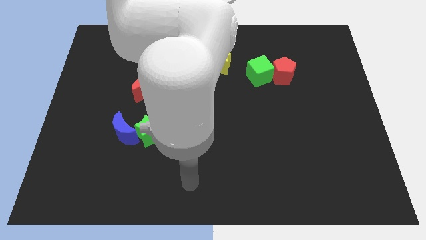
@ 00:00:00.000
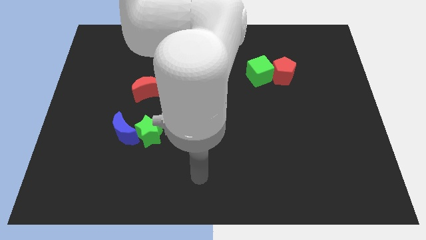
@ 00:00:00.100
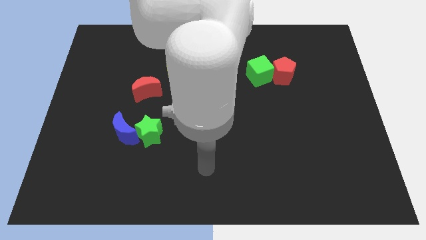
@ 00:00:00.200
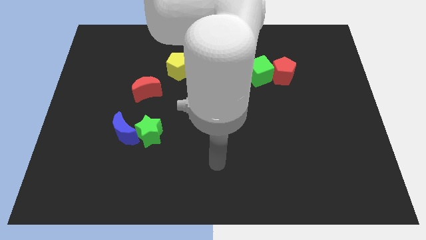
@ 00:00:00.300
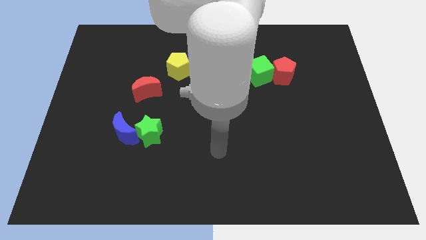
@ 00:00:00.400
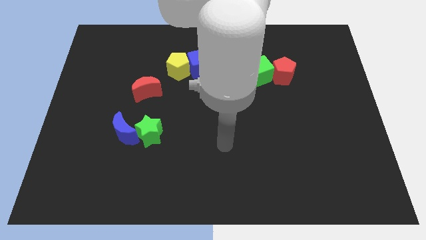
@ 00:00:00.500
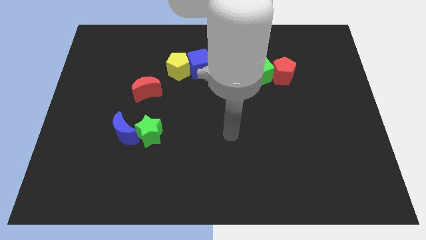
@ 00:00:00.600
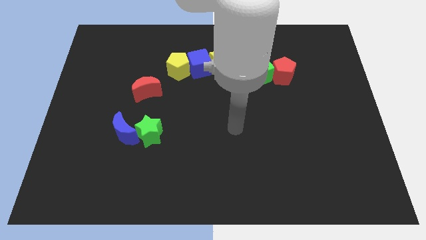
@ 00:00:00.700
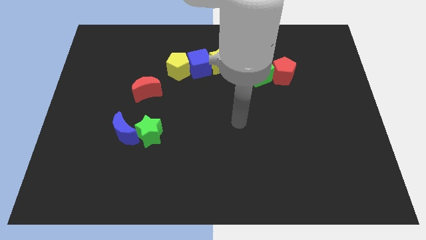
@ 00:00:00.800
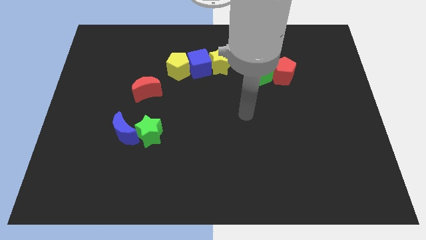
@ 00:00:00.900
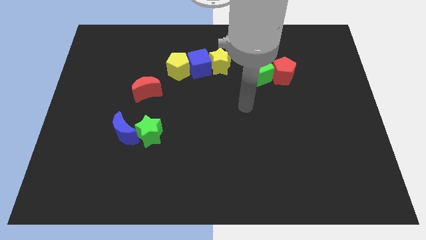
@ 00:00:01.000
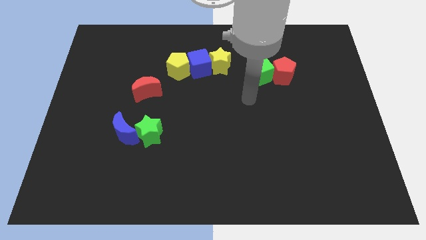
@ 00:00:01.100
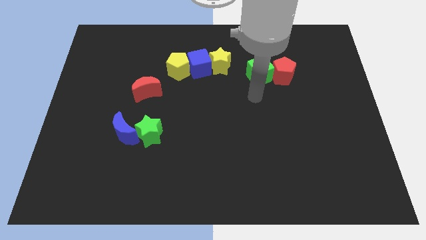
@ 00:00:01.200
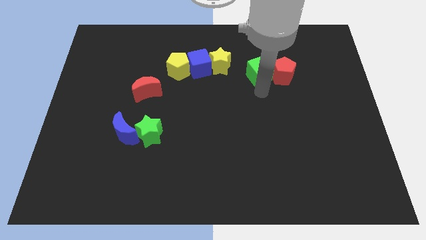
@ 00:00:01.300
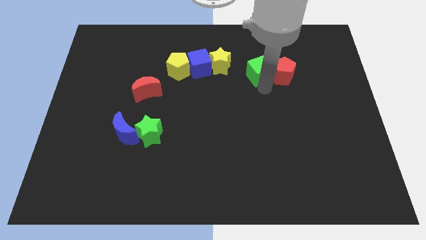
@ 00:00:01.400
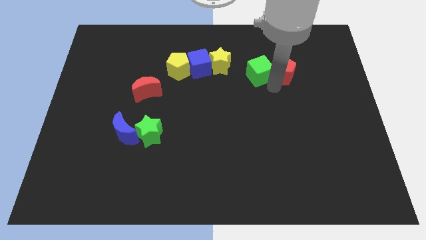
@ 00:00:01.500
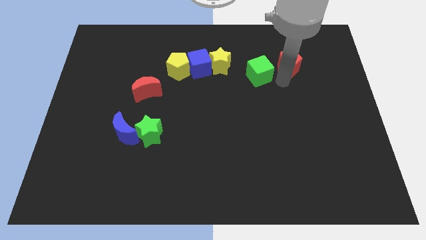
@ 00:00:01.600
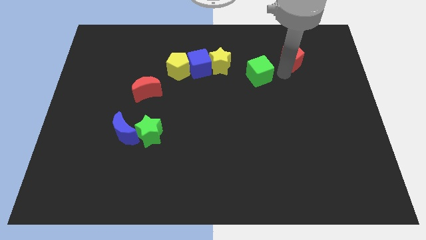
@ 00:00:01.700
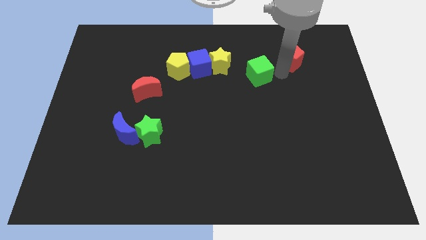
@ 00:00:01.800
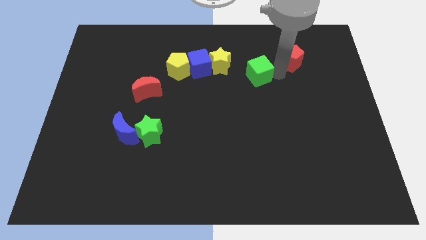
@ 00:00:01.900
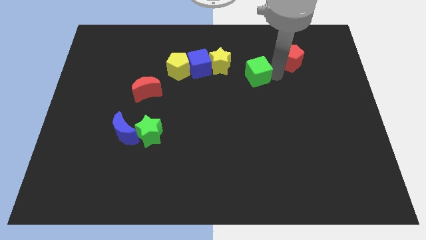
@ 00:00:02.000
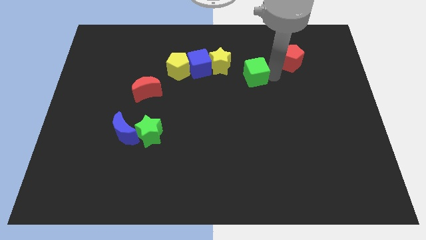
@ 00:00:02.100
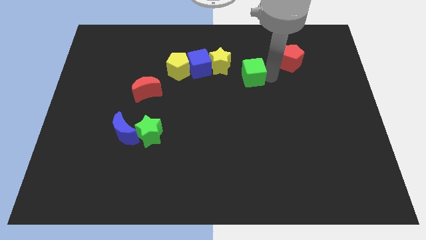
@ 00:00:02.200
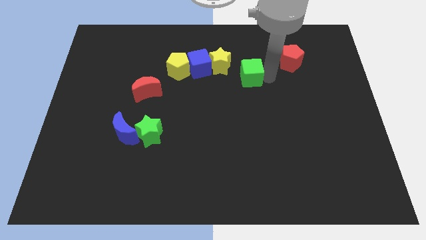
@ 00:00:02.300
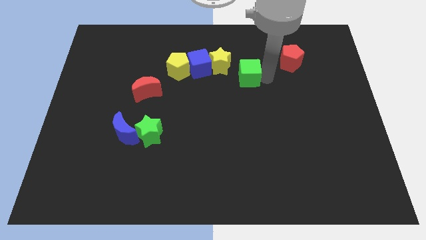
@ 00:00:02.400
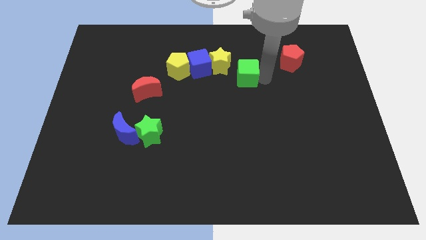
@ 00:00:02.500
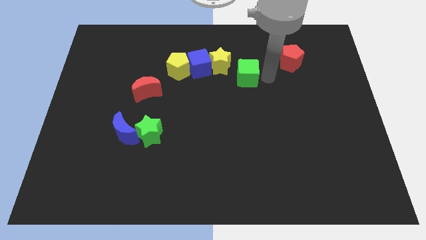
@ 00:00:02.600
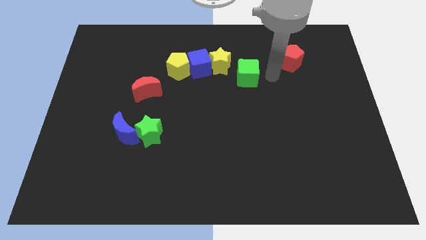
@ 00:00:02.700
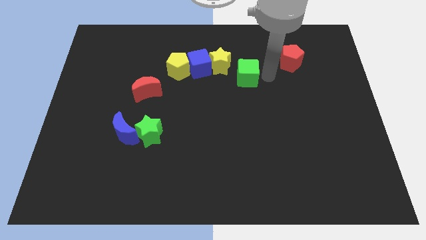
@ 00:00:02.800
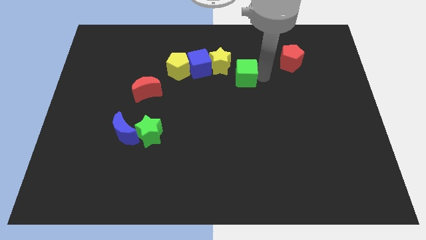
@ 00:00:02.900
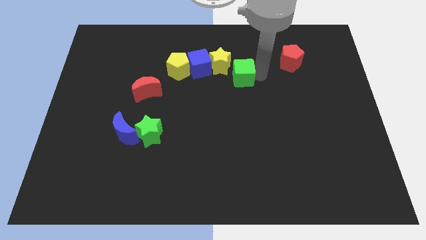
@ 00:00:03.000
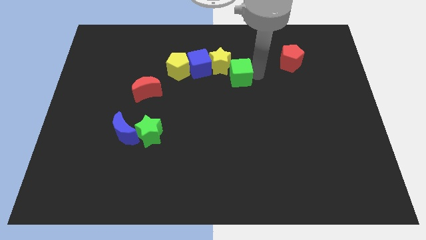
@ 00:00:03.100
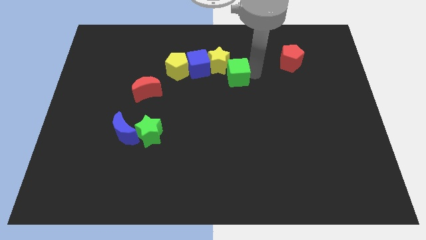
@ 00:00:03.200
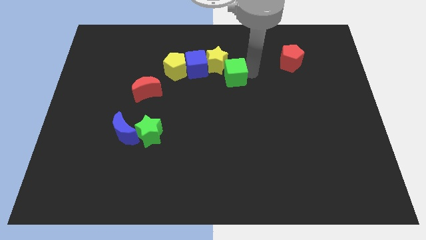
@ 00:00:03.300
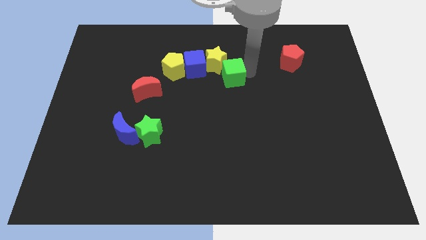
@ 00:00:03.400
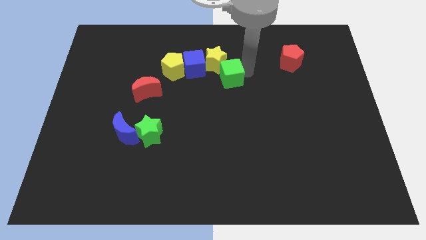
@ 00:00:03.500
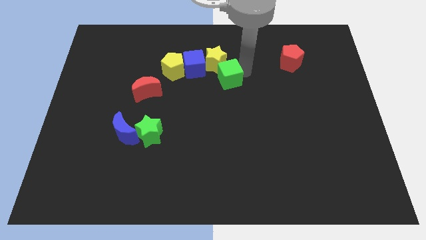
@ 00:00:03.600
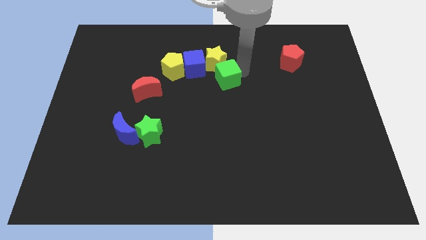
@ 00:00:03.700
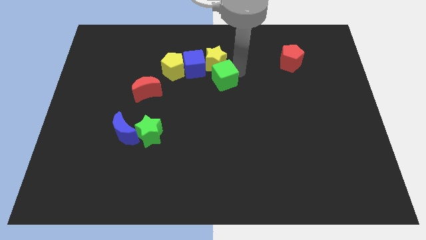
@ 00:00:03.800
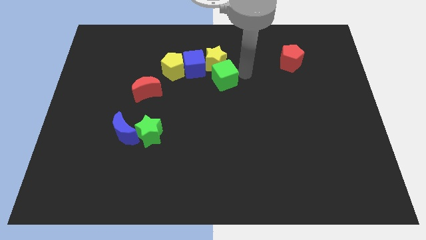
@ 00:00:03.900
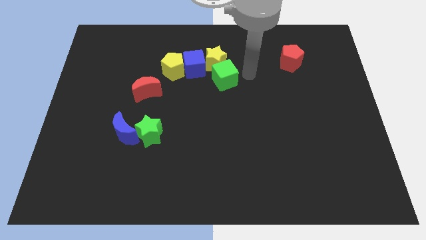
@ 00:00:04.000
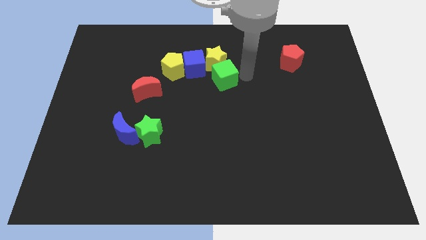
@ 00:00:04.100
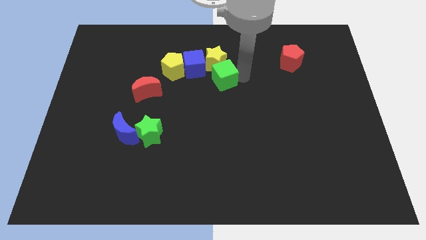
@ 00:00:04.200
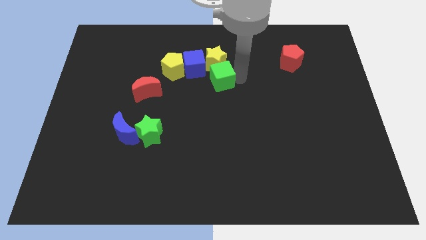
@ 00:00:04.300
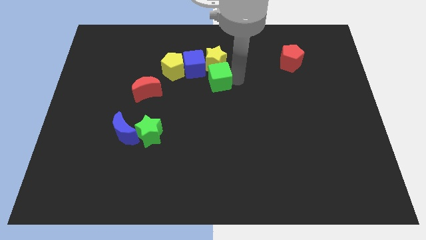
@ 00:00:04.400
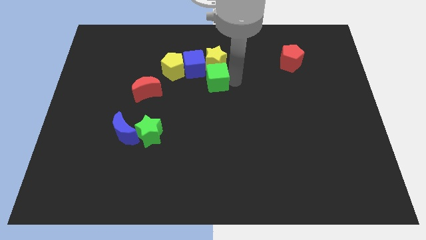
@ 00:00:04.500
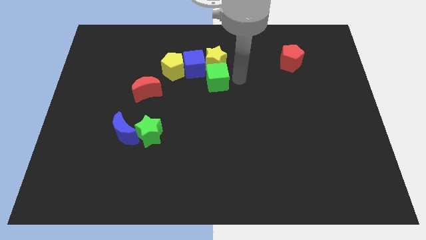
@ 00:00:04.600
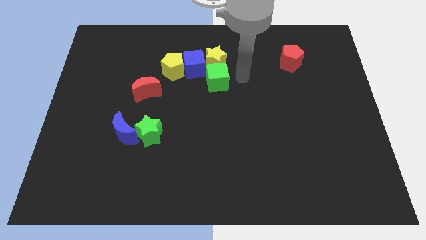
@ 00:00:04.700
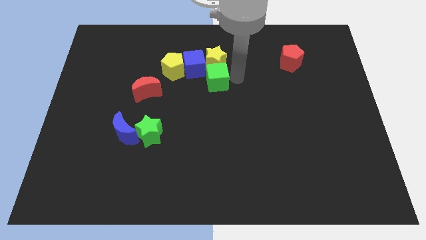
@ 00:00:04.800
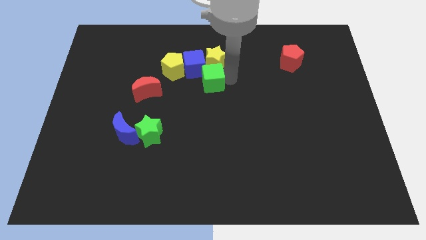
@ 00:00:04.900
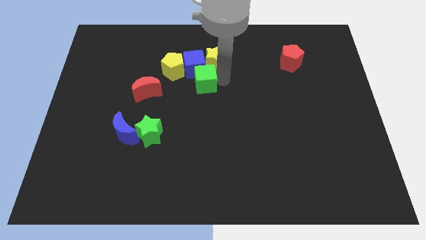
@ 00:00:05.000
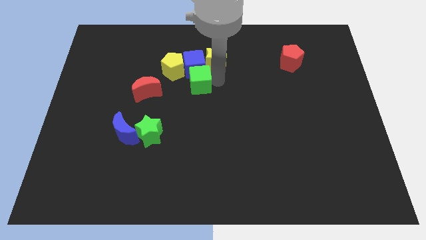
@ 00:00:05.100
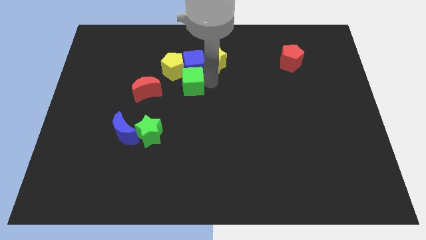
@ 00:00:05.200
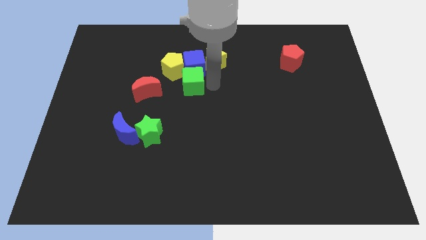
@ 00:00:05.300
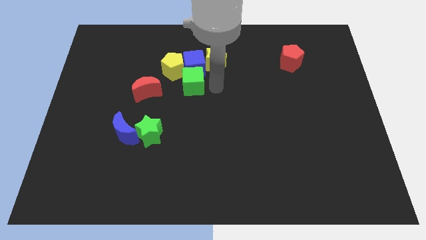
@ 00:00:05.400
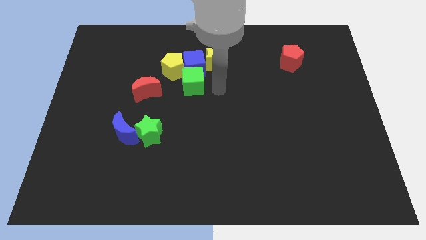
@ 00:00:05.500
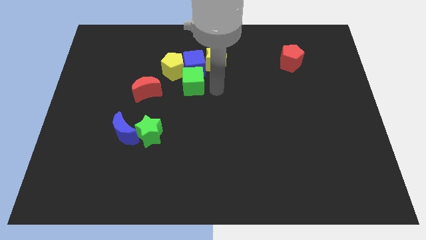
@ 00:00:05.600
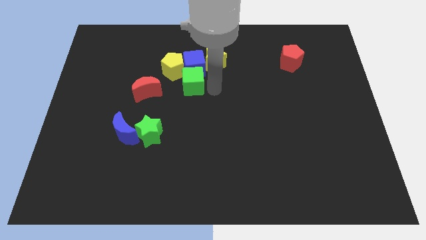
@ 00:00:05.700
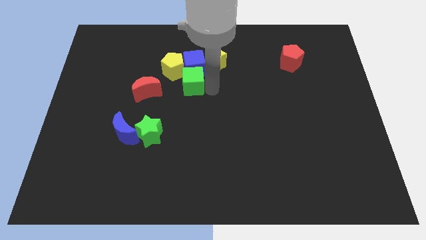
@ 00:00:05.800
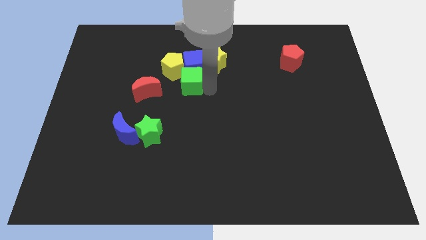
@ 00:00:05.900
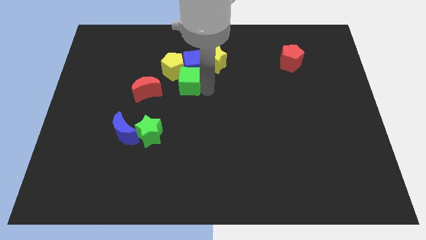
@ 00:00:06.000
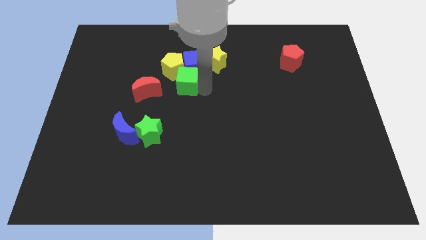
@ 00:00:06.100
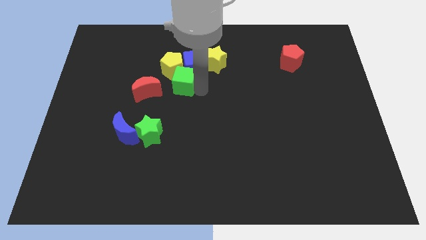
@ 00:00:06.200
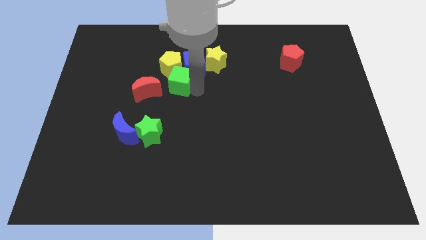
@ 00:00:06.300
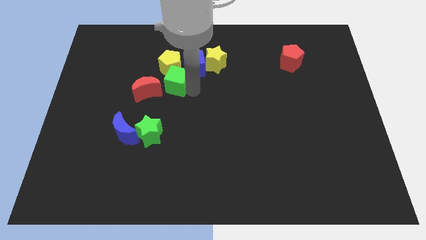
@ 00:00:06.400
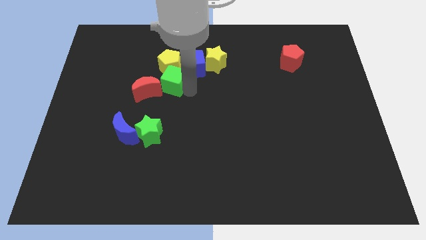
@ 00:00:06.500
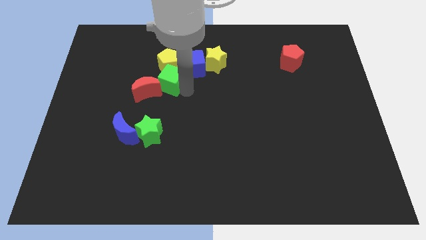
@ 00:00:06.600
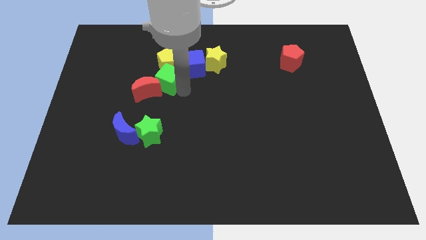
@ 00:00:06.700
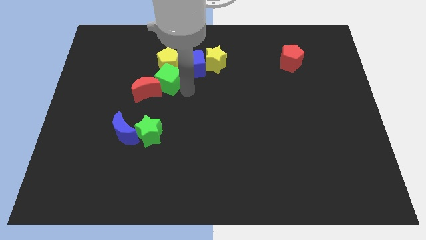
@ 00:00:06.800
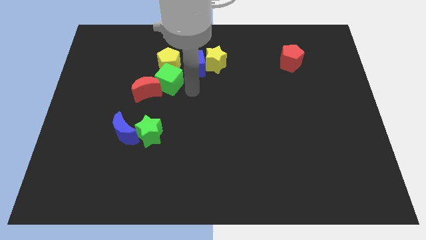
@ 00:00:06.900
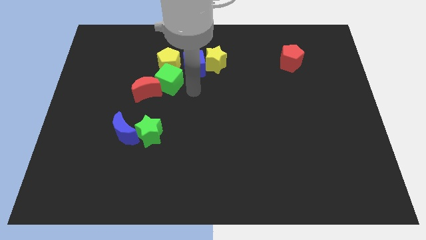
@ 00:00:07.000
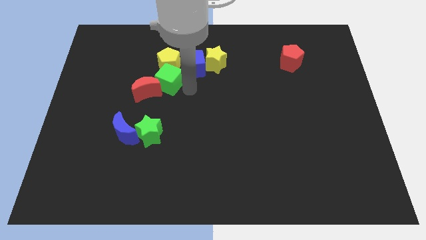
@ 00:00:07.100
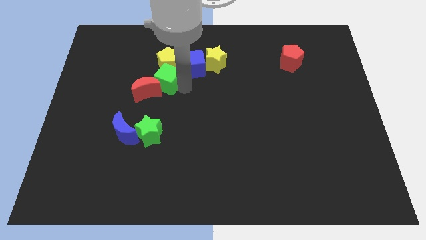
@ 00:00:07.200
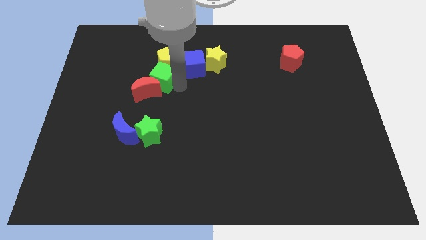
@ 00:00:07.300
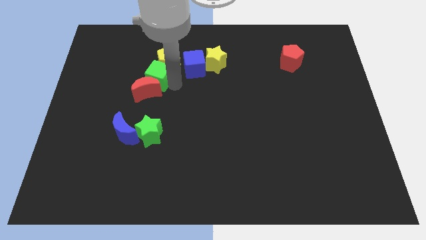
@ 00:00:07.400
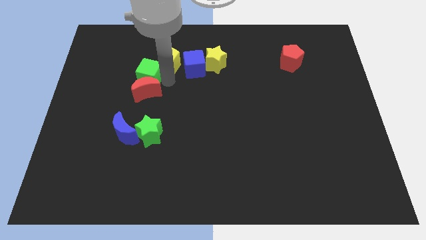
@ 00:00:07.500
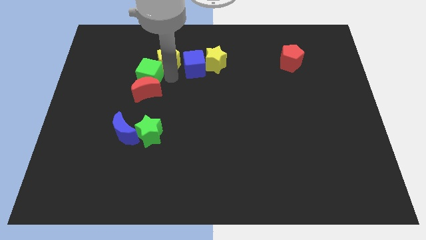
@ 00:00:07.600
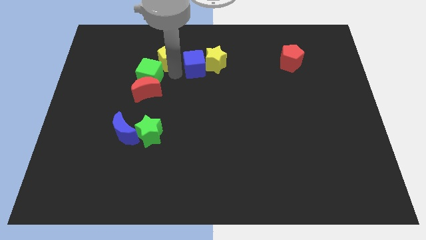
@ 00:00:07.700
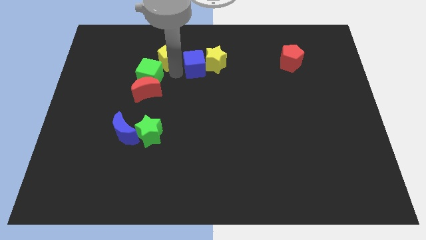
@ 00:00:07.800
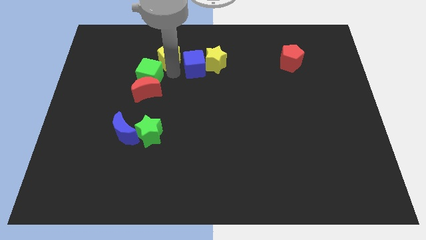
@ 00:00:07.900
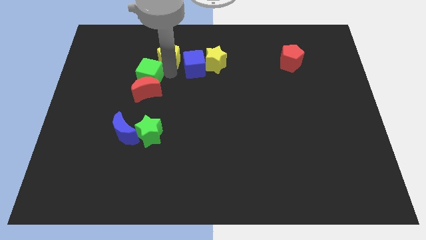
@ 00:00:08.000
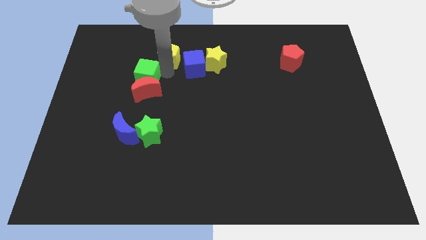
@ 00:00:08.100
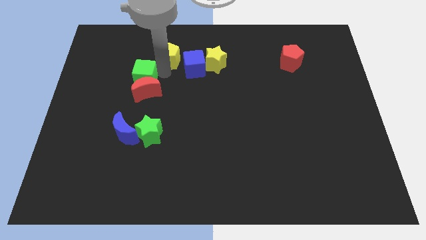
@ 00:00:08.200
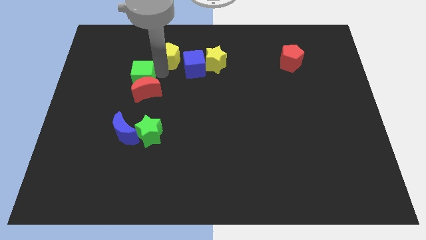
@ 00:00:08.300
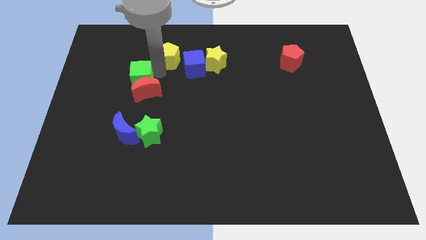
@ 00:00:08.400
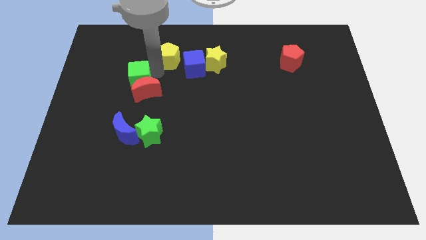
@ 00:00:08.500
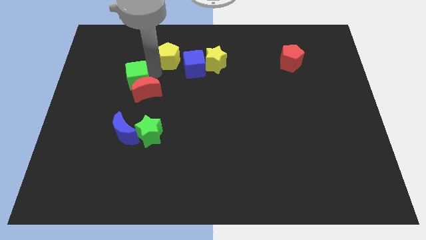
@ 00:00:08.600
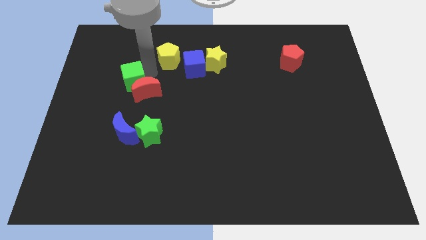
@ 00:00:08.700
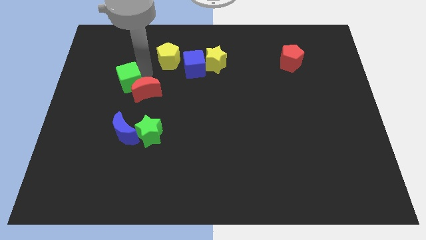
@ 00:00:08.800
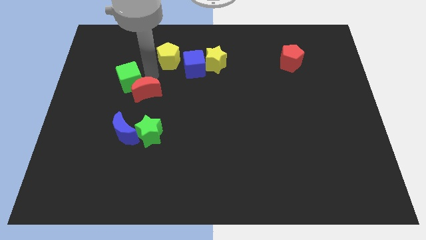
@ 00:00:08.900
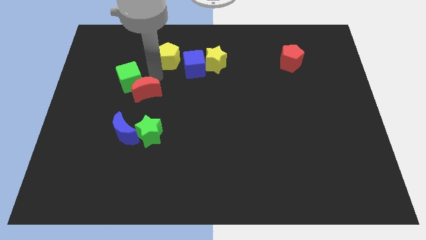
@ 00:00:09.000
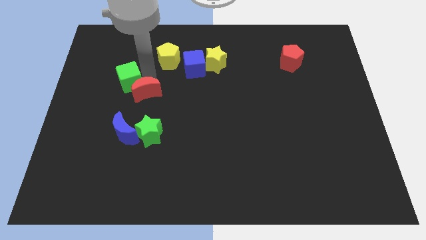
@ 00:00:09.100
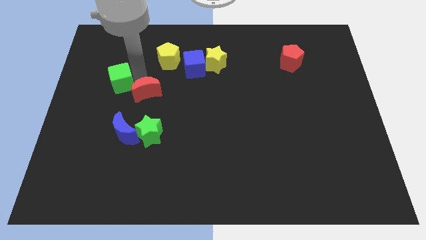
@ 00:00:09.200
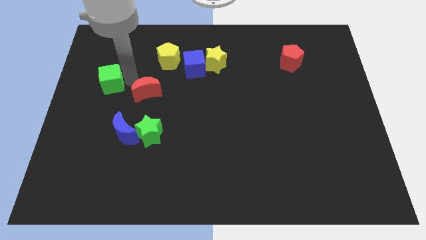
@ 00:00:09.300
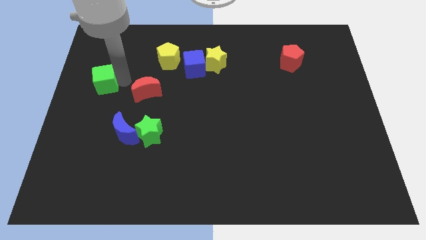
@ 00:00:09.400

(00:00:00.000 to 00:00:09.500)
move the green cube to the left side
